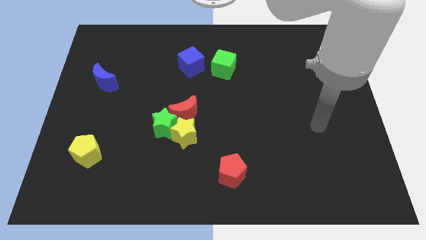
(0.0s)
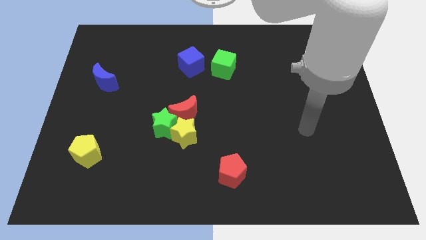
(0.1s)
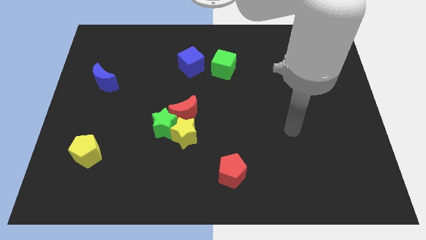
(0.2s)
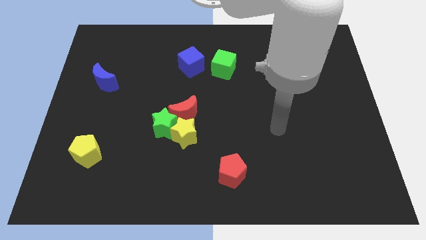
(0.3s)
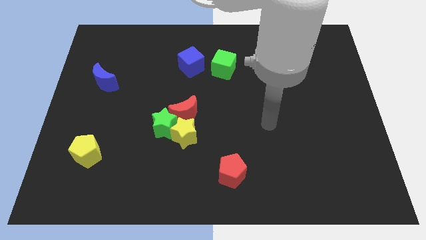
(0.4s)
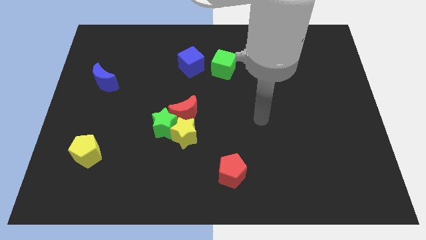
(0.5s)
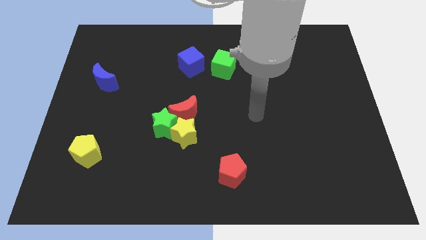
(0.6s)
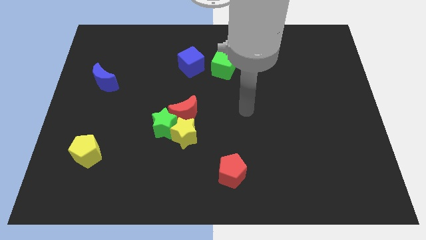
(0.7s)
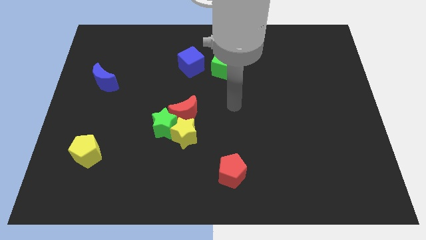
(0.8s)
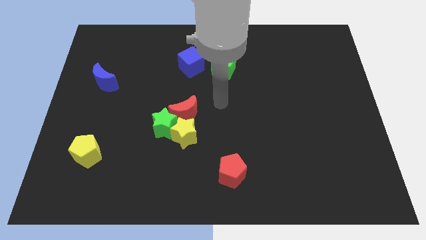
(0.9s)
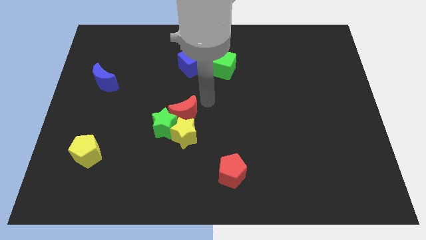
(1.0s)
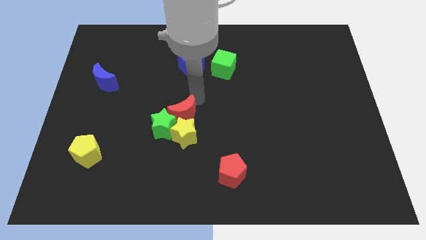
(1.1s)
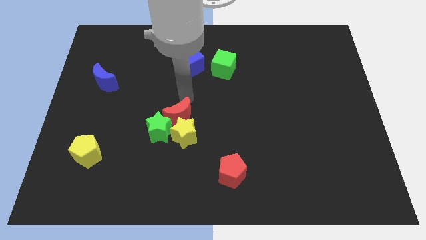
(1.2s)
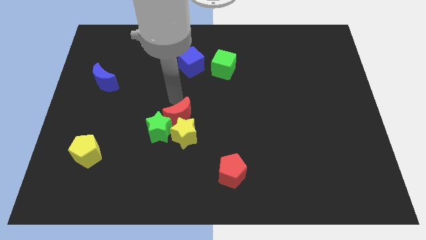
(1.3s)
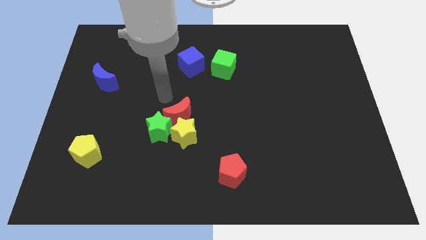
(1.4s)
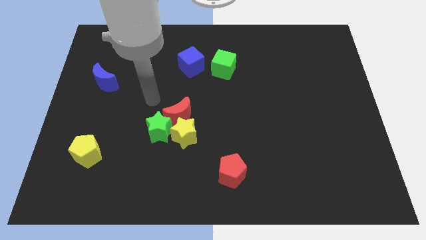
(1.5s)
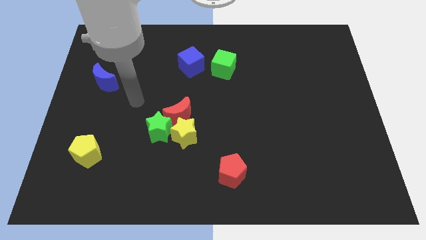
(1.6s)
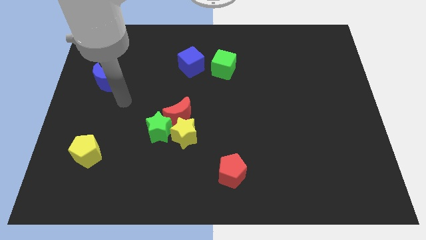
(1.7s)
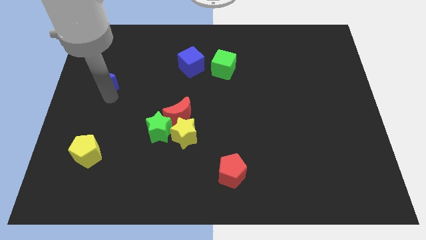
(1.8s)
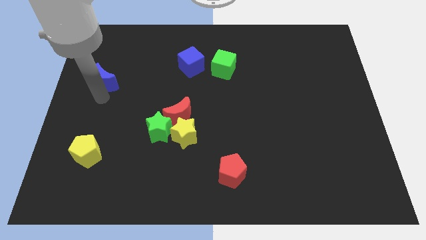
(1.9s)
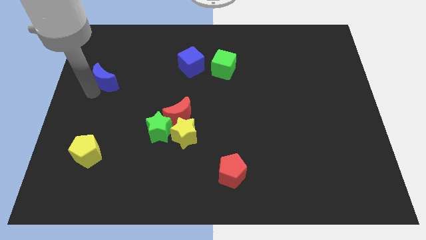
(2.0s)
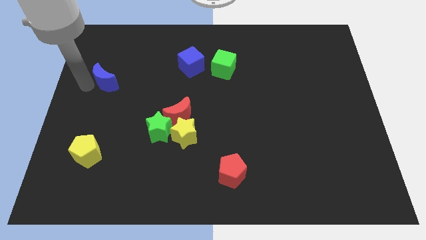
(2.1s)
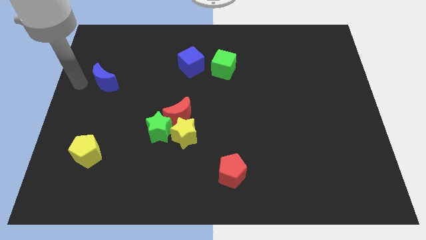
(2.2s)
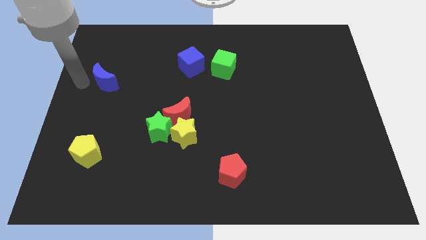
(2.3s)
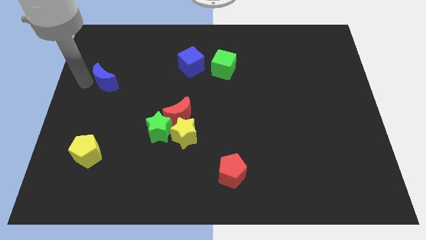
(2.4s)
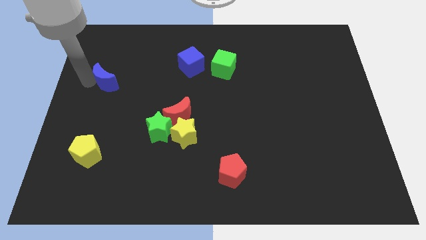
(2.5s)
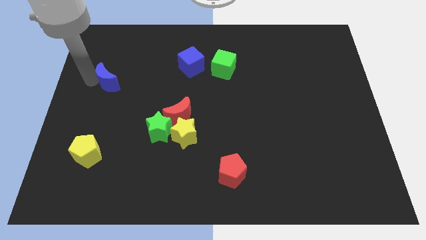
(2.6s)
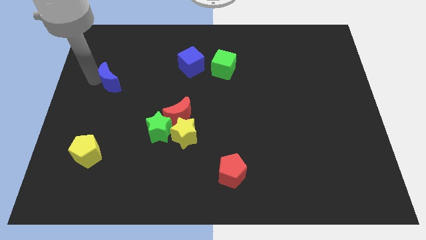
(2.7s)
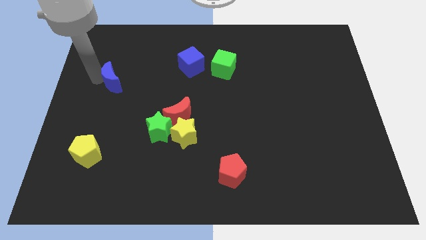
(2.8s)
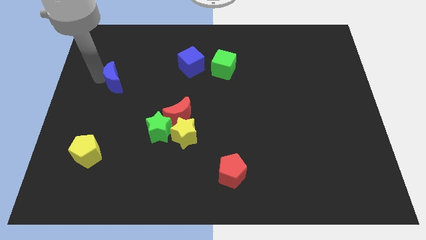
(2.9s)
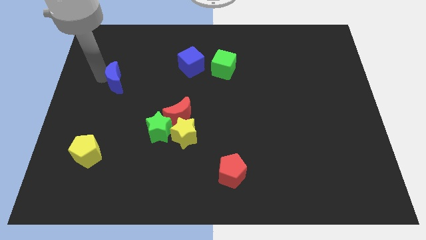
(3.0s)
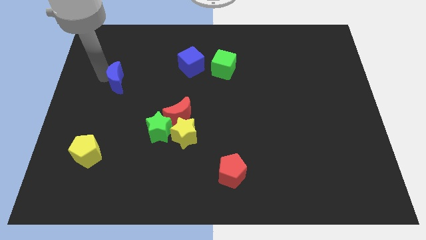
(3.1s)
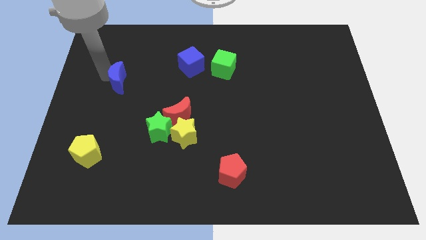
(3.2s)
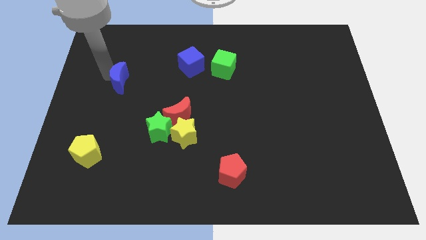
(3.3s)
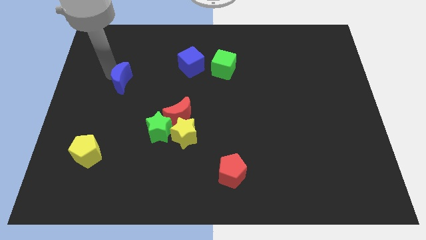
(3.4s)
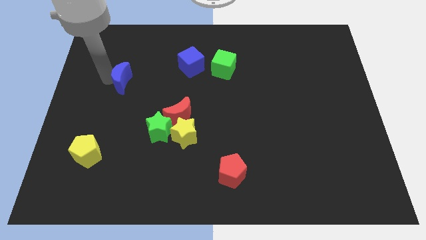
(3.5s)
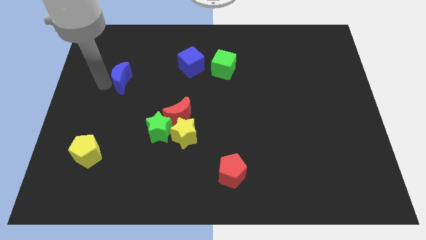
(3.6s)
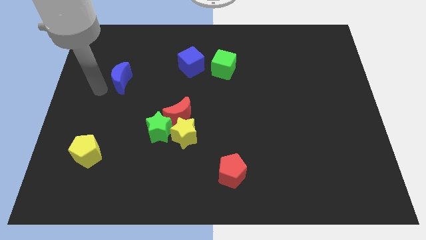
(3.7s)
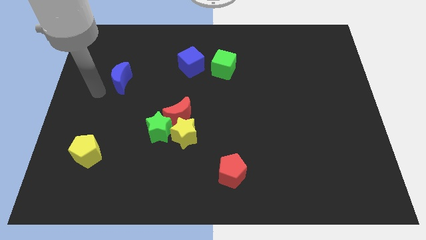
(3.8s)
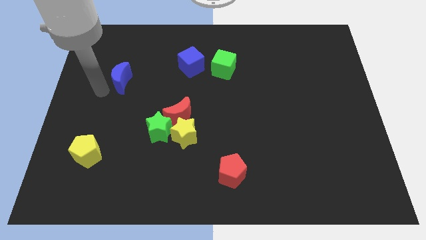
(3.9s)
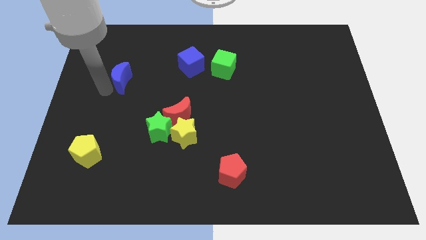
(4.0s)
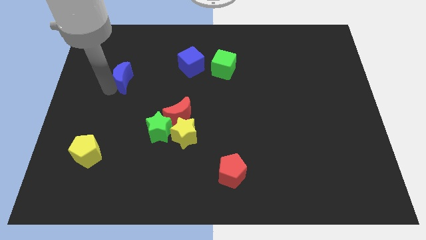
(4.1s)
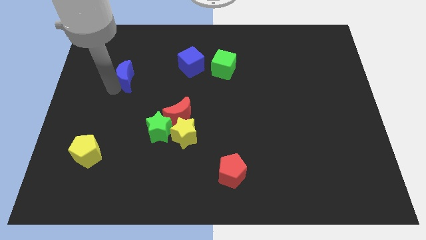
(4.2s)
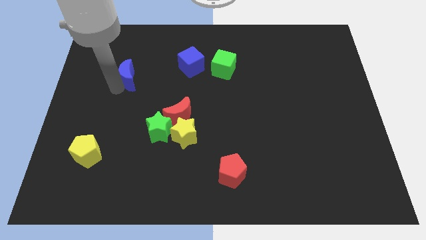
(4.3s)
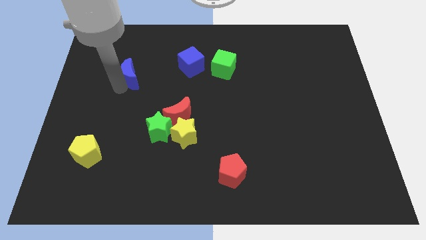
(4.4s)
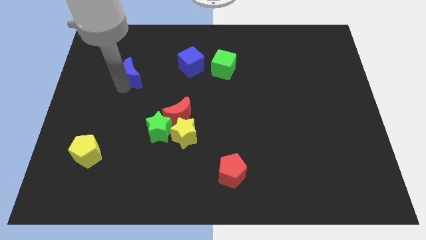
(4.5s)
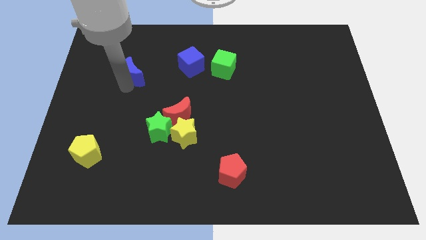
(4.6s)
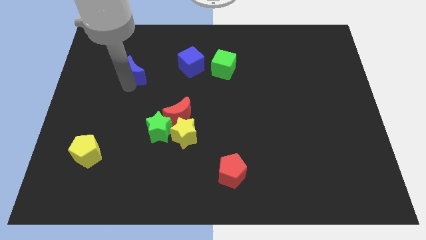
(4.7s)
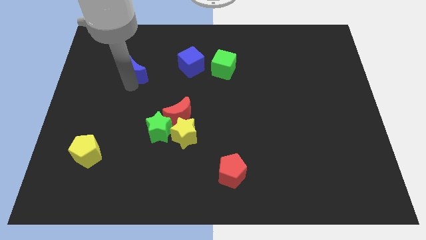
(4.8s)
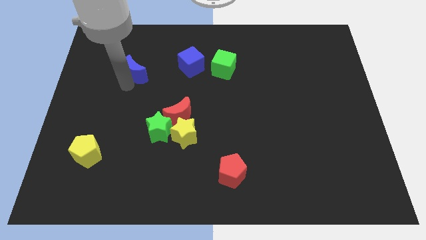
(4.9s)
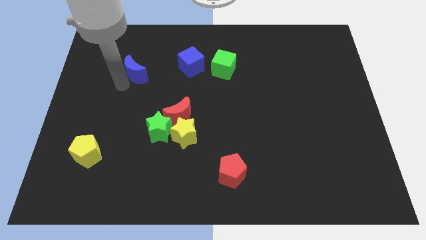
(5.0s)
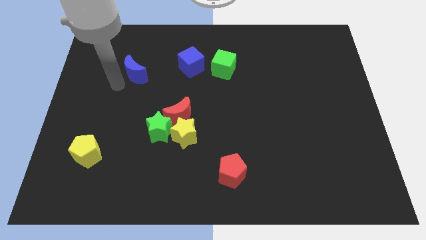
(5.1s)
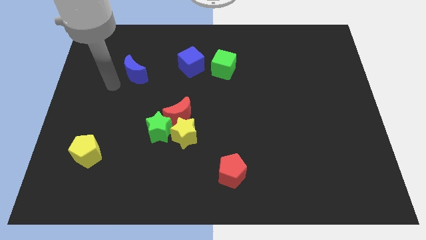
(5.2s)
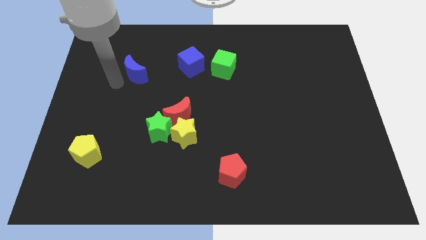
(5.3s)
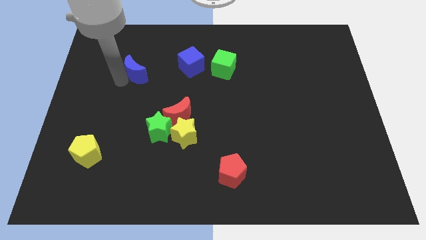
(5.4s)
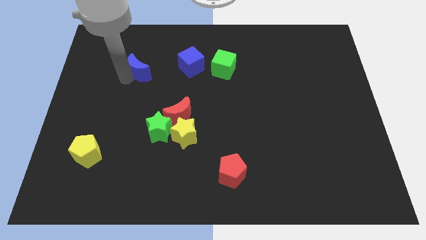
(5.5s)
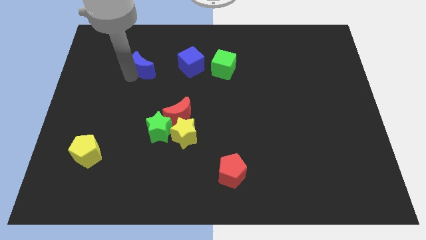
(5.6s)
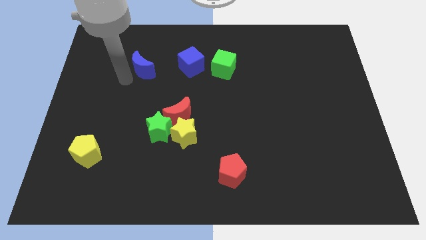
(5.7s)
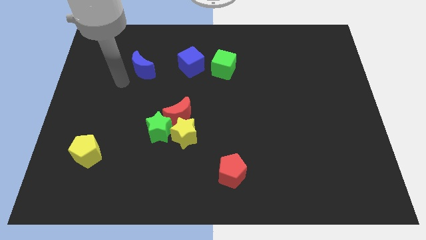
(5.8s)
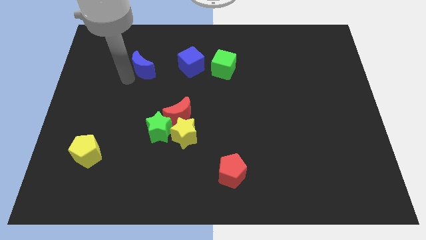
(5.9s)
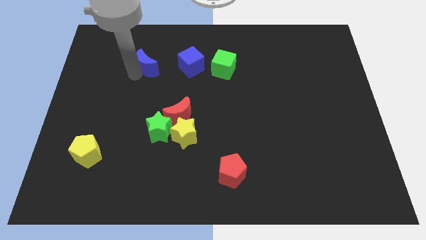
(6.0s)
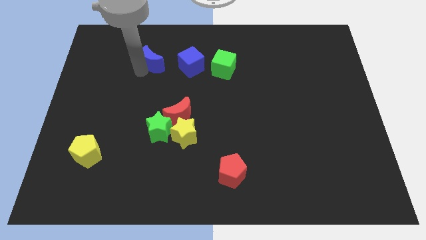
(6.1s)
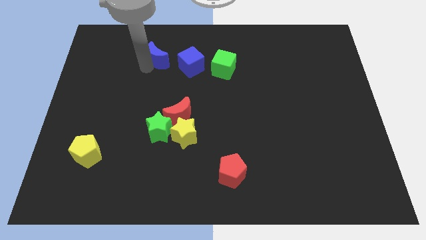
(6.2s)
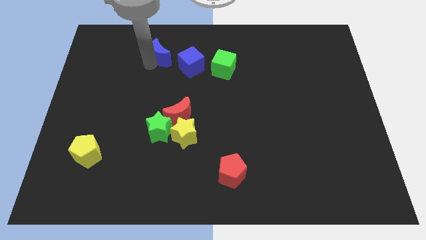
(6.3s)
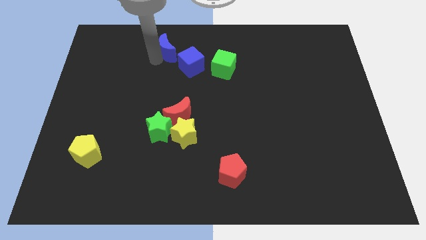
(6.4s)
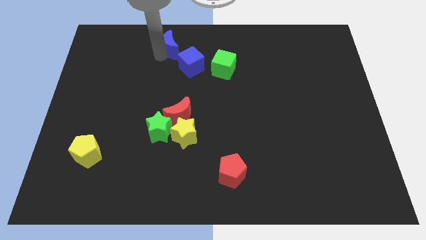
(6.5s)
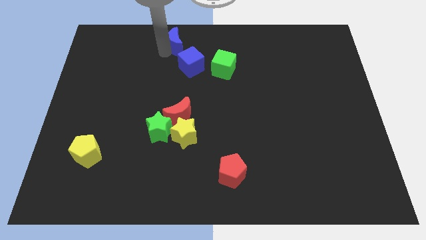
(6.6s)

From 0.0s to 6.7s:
put the blue moon to the top side
